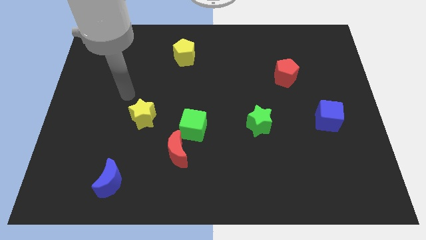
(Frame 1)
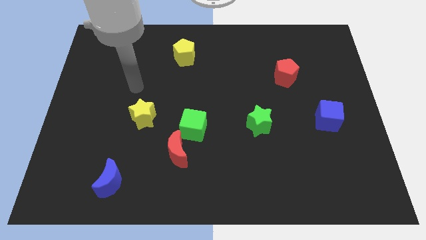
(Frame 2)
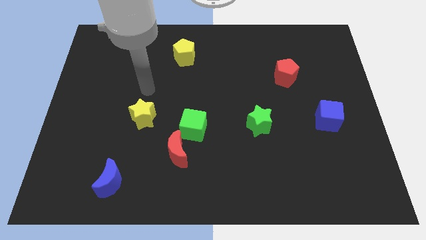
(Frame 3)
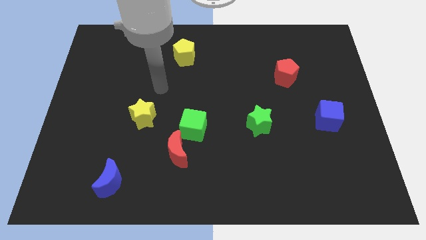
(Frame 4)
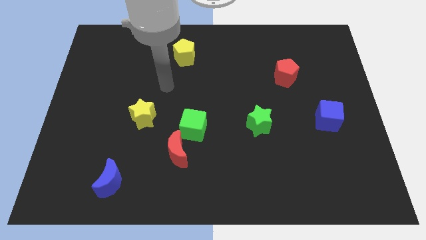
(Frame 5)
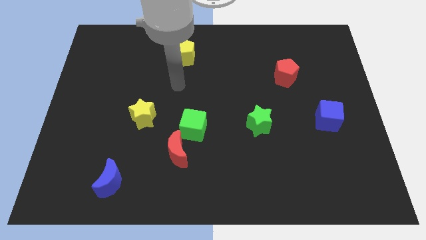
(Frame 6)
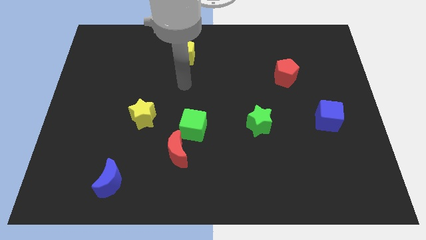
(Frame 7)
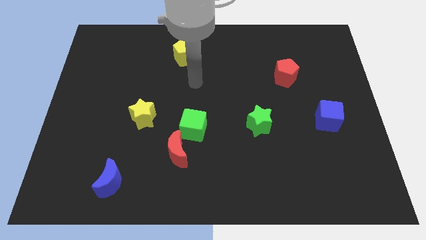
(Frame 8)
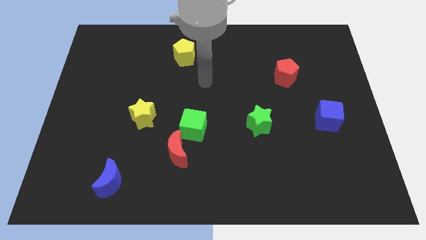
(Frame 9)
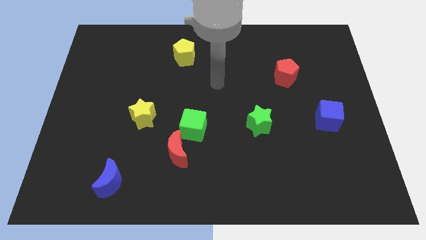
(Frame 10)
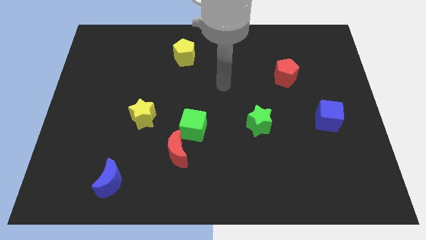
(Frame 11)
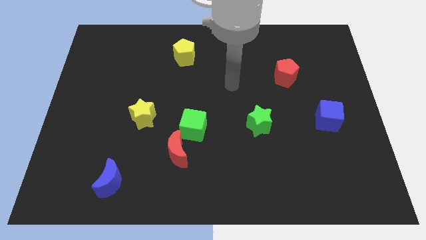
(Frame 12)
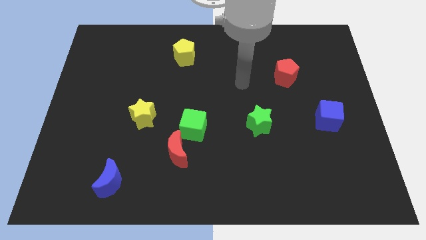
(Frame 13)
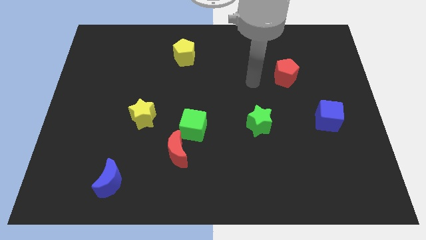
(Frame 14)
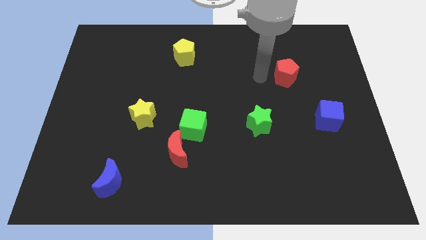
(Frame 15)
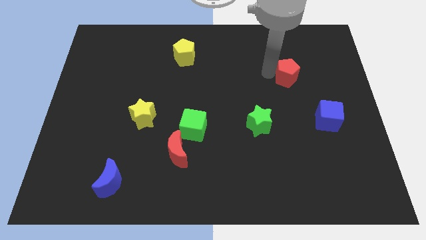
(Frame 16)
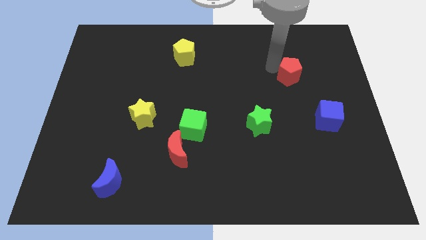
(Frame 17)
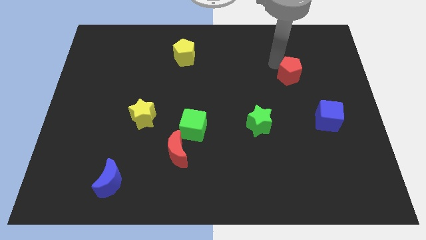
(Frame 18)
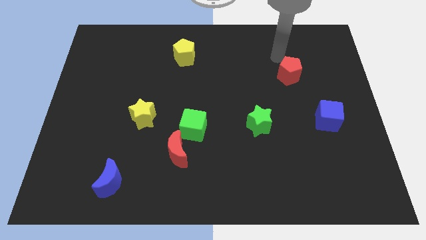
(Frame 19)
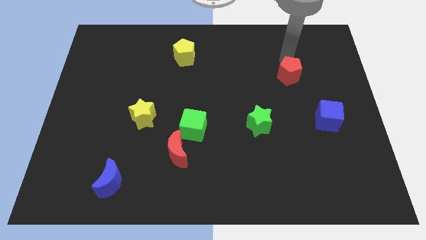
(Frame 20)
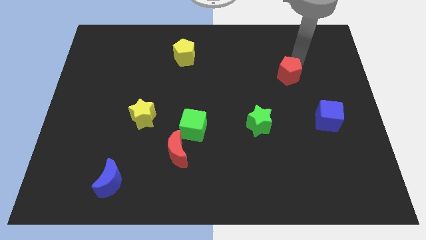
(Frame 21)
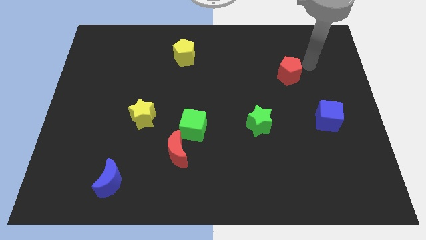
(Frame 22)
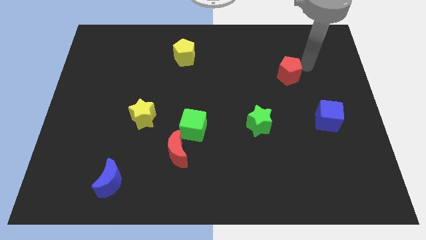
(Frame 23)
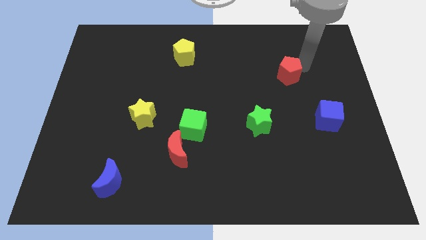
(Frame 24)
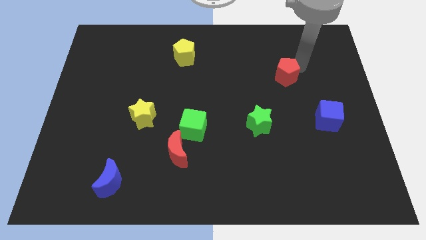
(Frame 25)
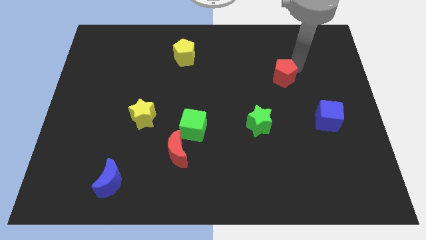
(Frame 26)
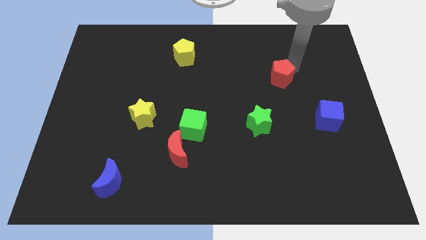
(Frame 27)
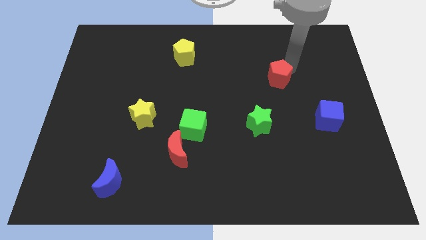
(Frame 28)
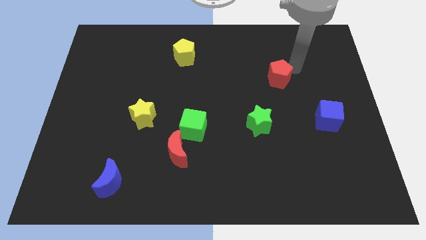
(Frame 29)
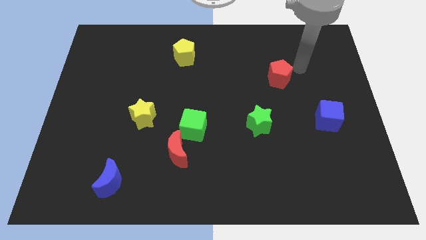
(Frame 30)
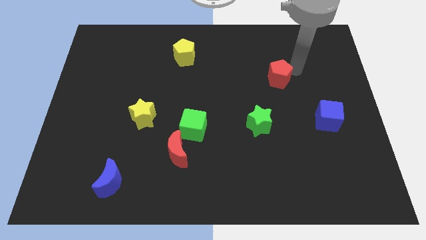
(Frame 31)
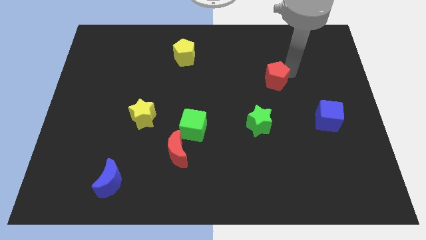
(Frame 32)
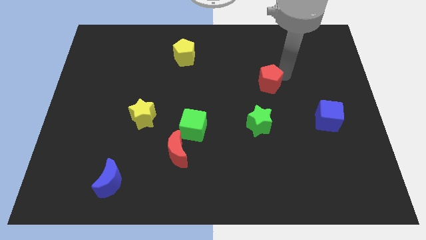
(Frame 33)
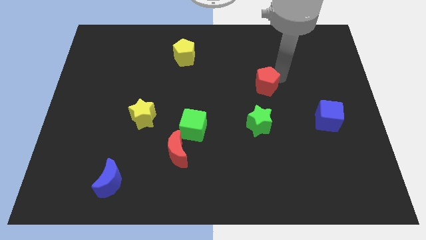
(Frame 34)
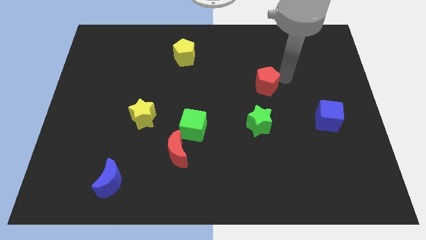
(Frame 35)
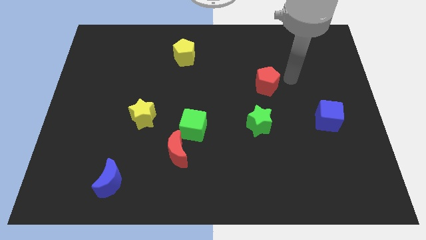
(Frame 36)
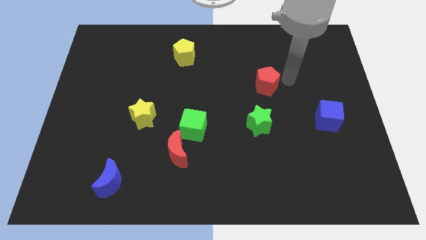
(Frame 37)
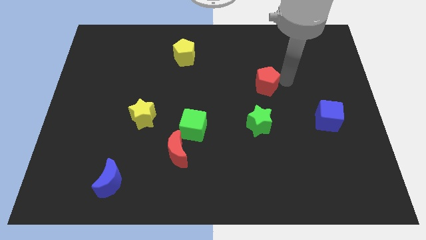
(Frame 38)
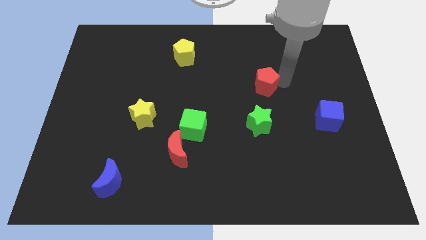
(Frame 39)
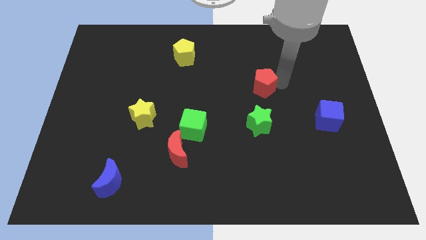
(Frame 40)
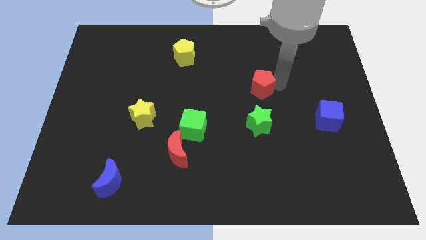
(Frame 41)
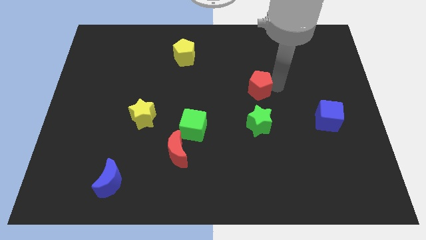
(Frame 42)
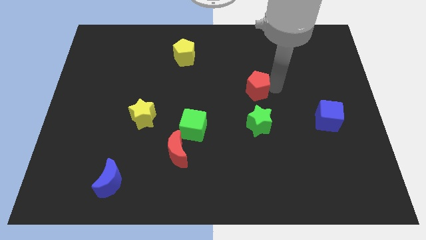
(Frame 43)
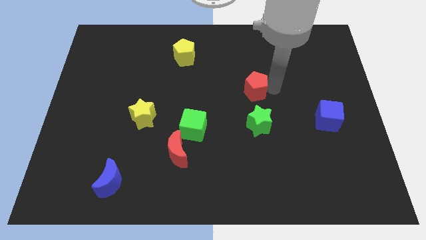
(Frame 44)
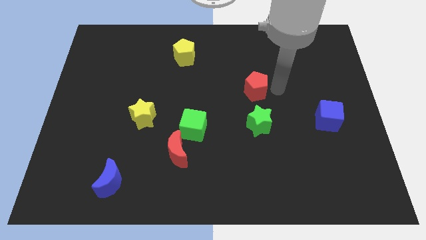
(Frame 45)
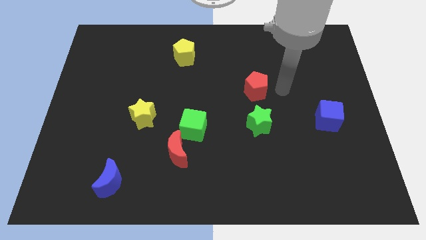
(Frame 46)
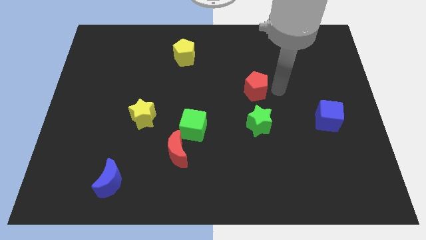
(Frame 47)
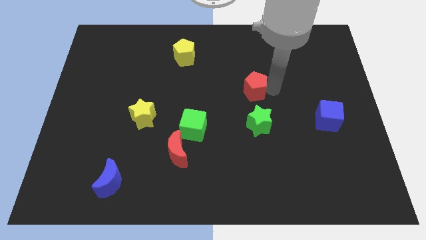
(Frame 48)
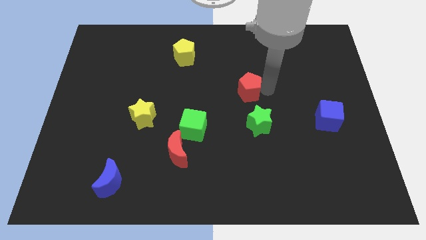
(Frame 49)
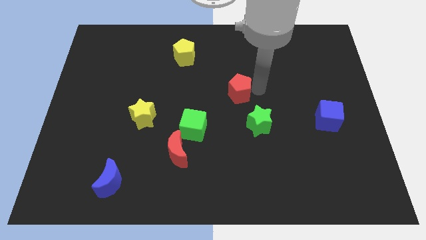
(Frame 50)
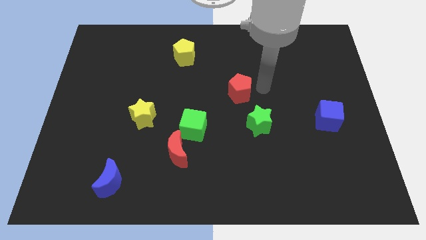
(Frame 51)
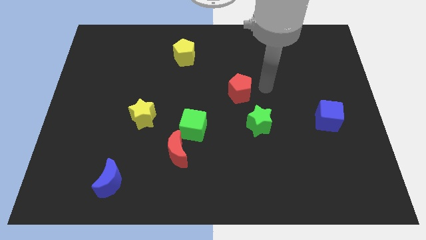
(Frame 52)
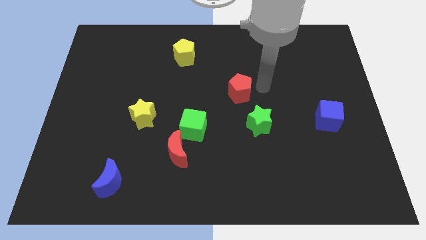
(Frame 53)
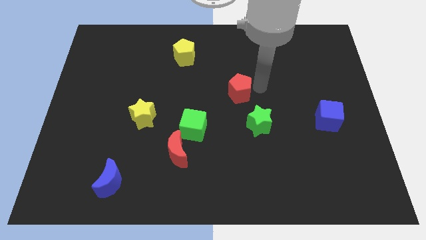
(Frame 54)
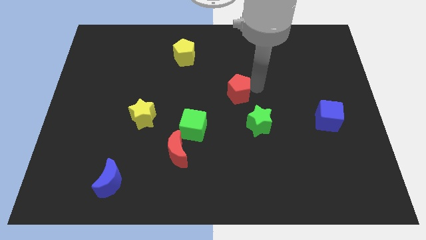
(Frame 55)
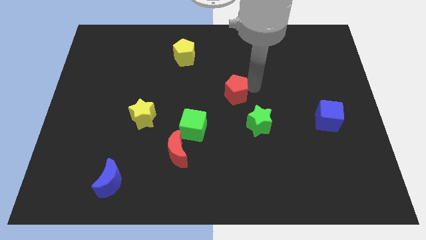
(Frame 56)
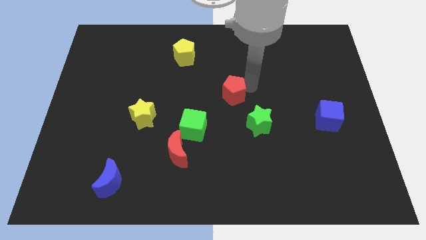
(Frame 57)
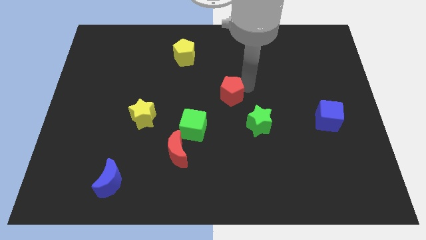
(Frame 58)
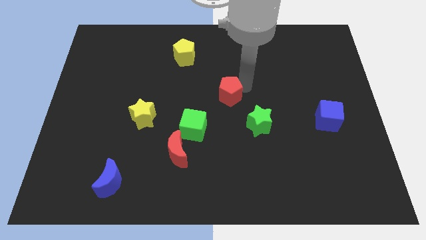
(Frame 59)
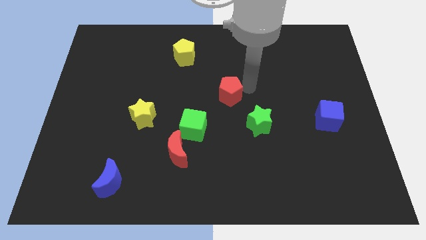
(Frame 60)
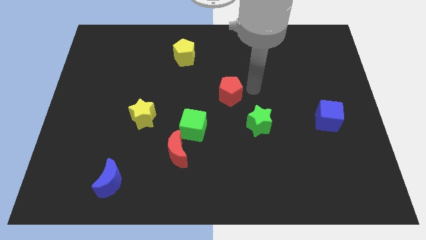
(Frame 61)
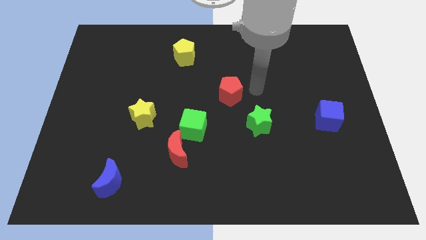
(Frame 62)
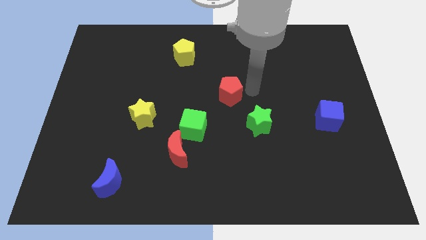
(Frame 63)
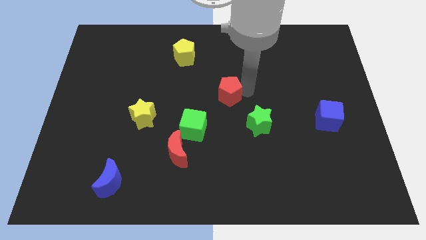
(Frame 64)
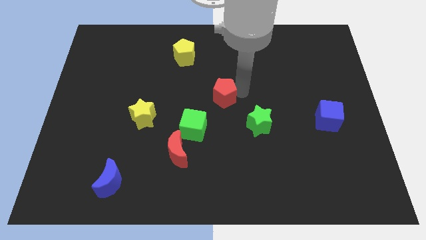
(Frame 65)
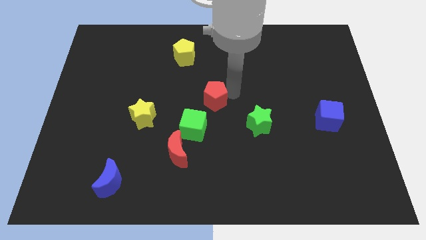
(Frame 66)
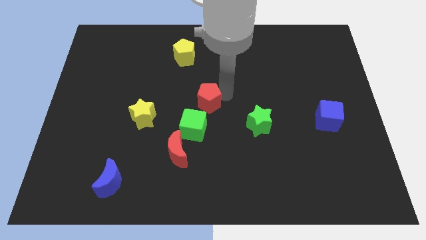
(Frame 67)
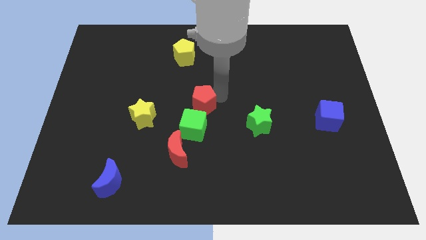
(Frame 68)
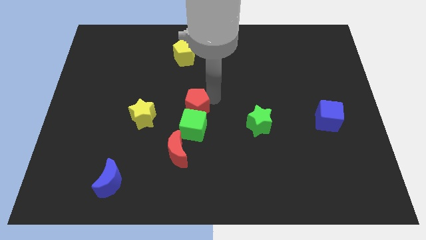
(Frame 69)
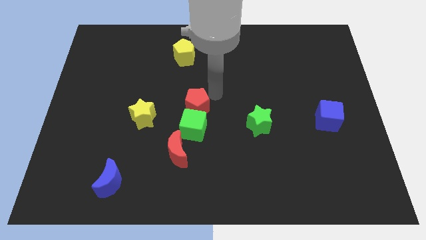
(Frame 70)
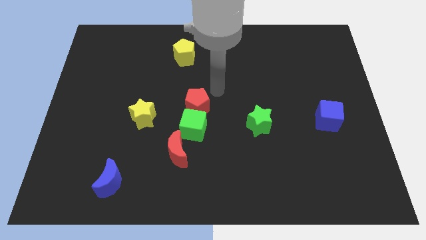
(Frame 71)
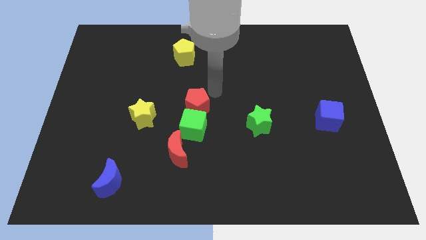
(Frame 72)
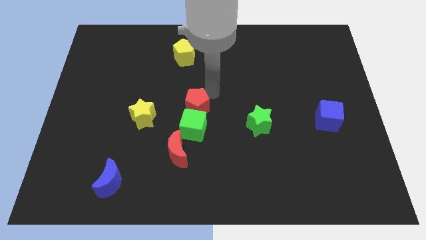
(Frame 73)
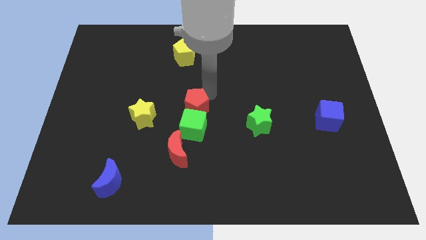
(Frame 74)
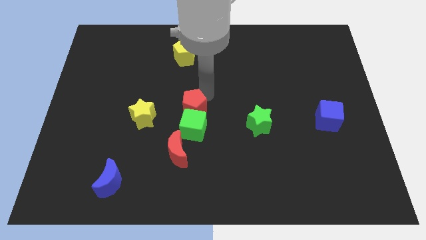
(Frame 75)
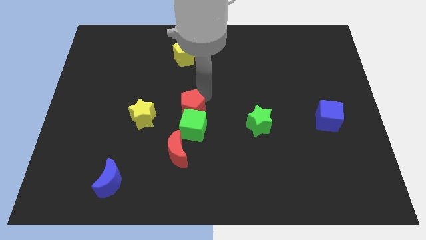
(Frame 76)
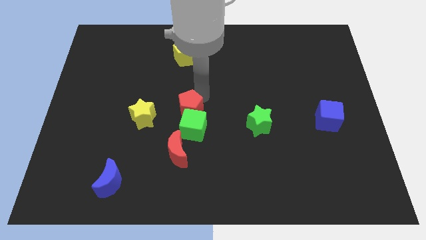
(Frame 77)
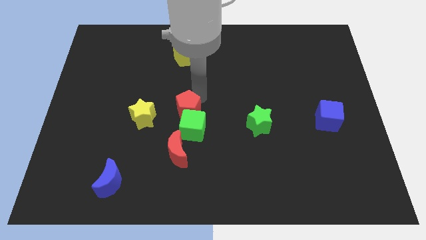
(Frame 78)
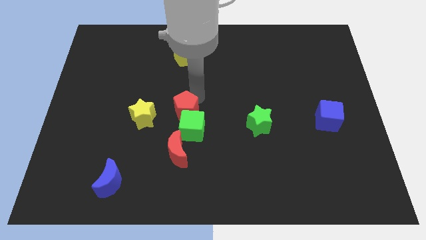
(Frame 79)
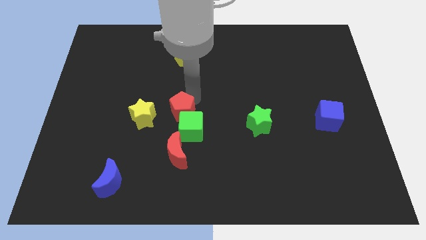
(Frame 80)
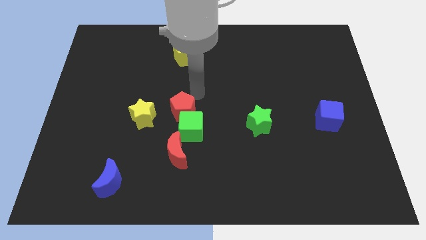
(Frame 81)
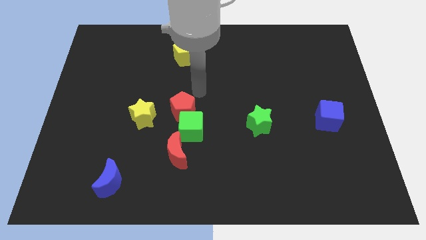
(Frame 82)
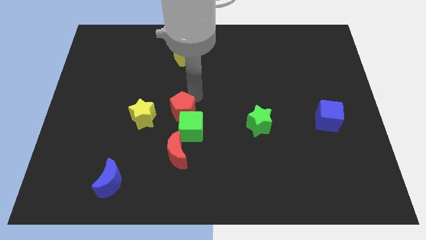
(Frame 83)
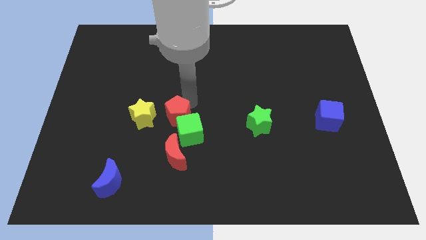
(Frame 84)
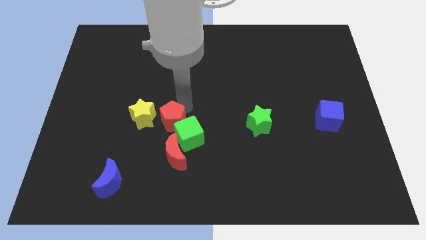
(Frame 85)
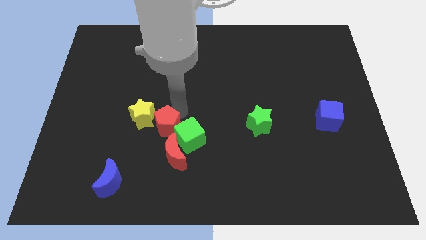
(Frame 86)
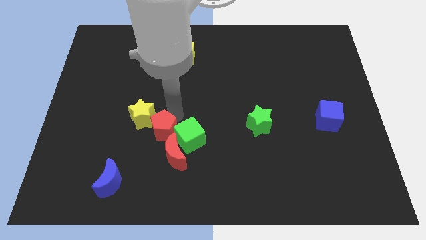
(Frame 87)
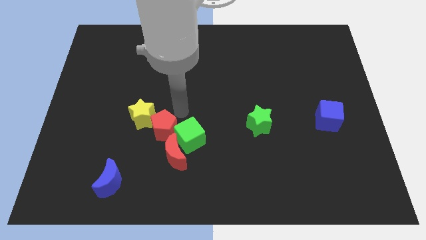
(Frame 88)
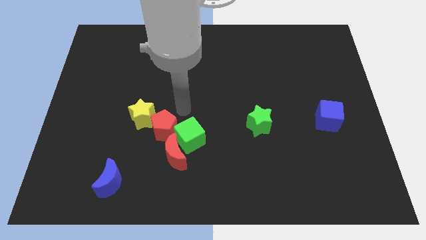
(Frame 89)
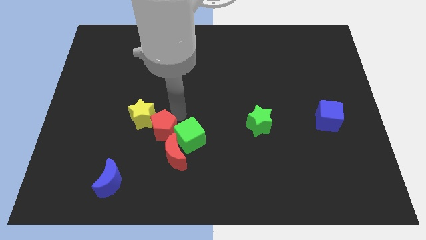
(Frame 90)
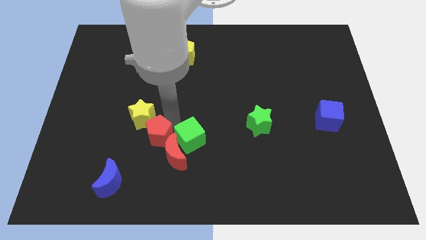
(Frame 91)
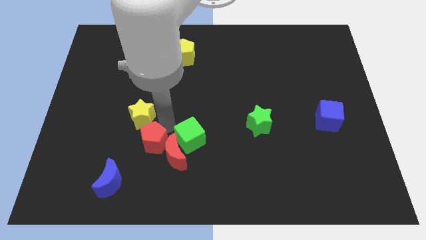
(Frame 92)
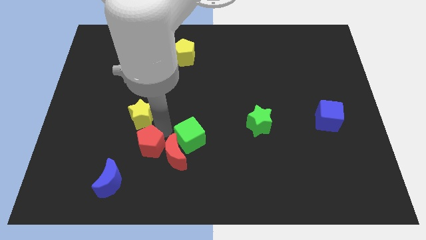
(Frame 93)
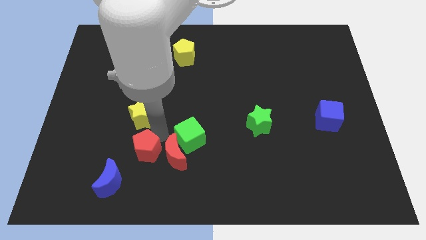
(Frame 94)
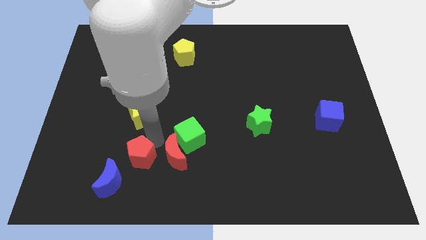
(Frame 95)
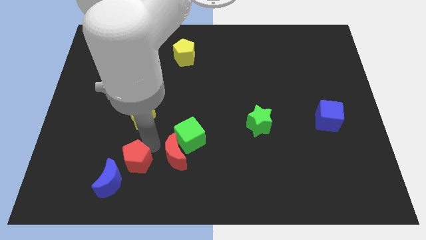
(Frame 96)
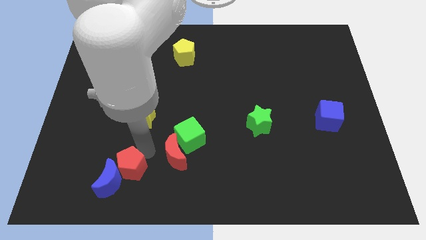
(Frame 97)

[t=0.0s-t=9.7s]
put the red pentagon towards the blue moon
